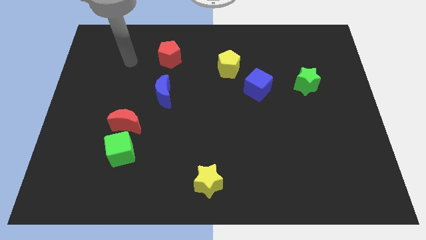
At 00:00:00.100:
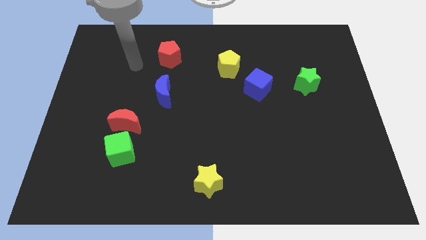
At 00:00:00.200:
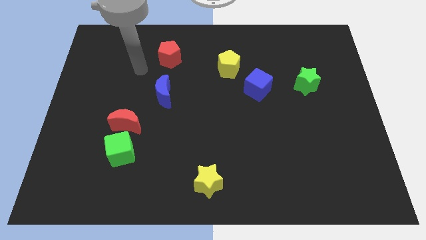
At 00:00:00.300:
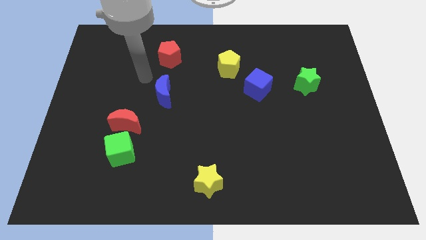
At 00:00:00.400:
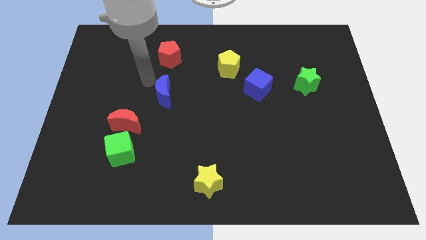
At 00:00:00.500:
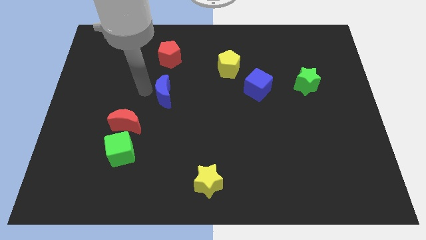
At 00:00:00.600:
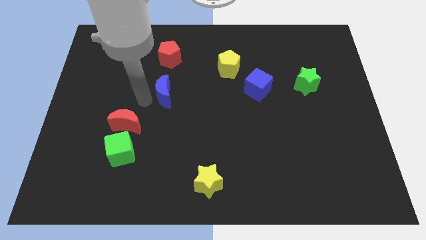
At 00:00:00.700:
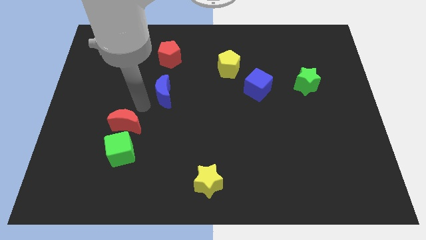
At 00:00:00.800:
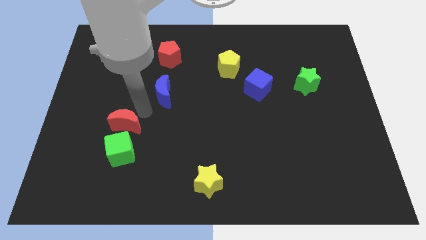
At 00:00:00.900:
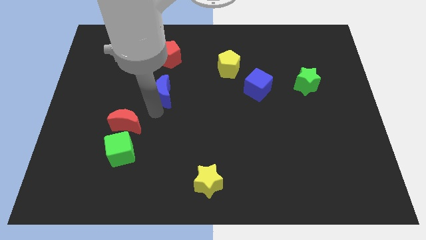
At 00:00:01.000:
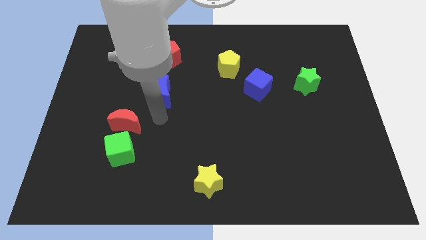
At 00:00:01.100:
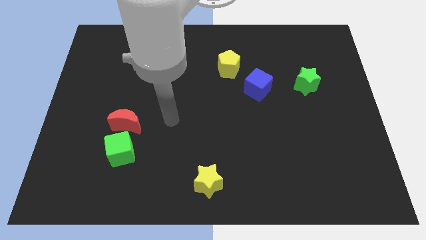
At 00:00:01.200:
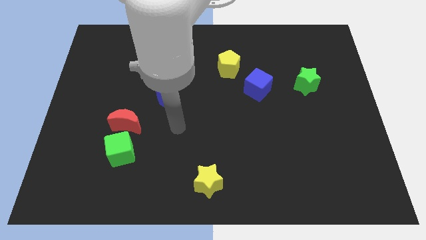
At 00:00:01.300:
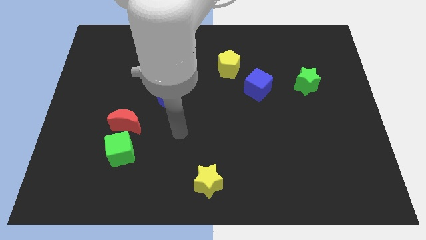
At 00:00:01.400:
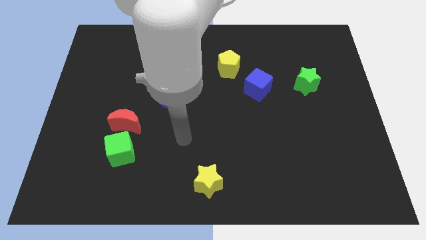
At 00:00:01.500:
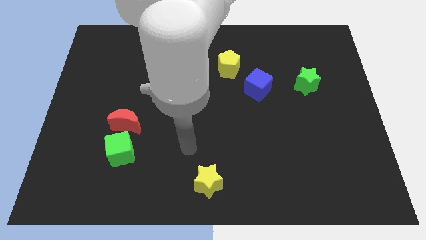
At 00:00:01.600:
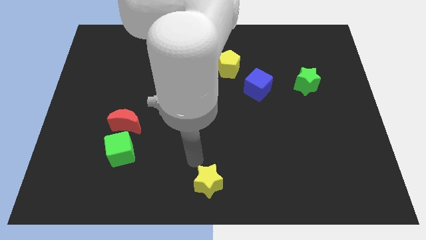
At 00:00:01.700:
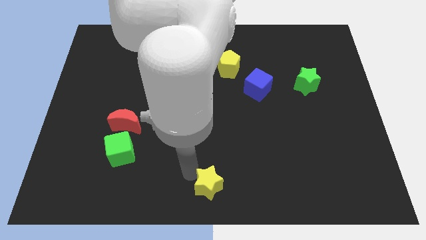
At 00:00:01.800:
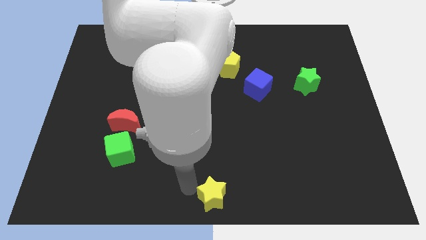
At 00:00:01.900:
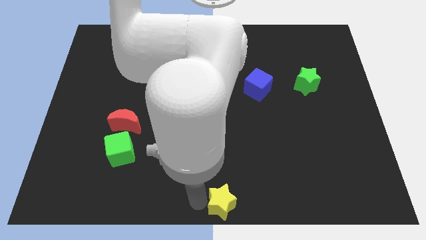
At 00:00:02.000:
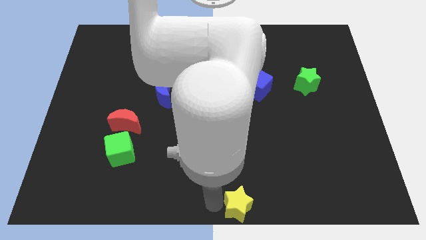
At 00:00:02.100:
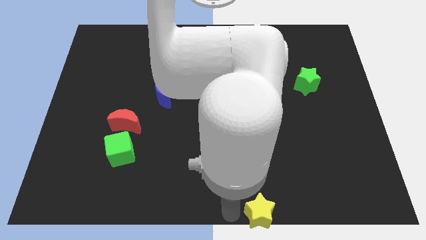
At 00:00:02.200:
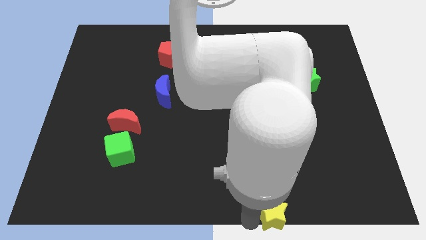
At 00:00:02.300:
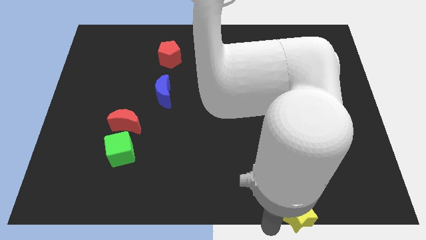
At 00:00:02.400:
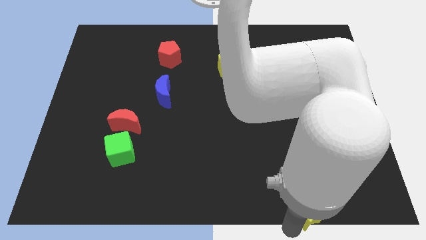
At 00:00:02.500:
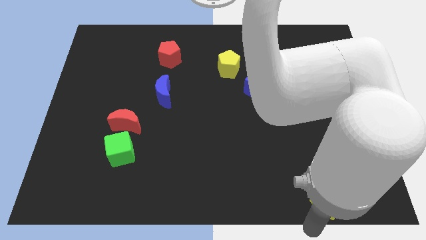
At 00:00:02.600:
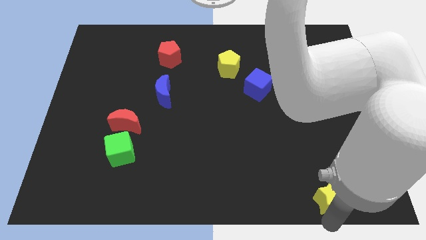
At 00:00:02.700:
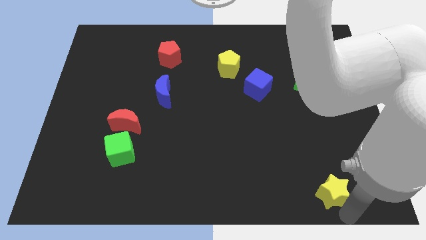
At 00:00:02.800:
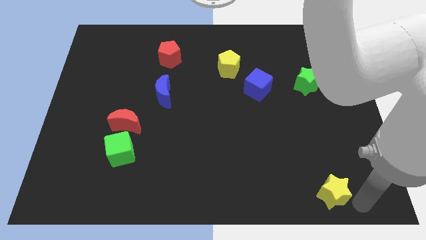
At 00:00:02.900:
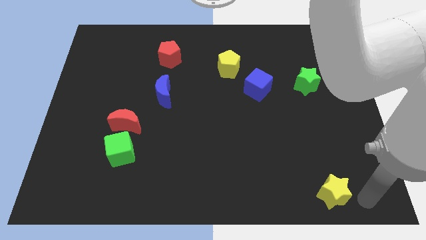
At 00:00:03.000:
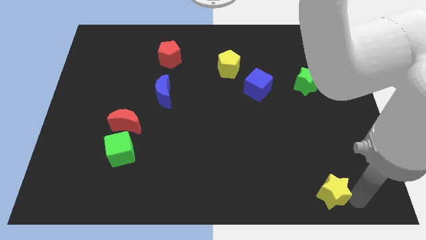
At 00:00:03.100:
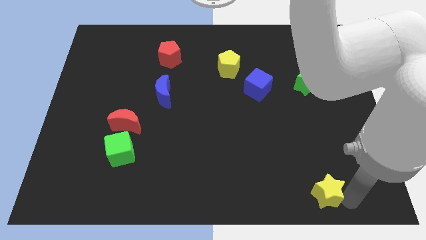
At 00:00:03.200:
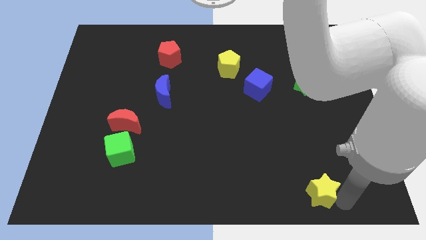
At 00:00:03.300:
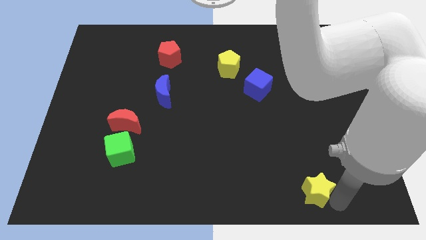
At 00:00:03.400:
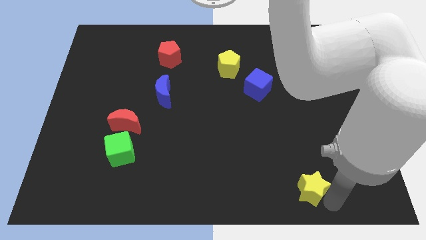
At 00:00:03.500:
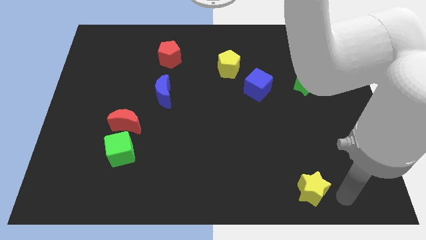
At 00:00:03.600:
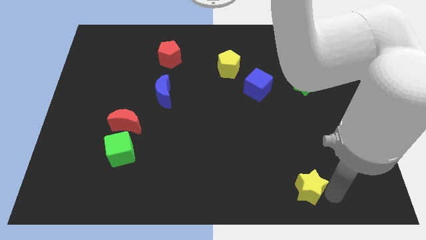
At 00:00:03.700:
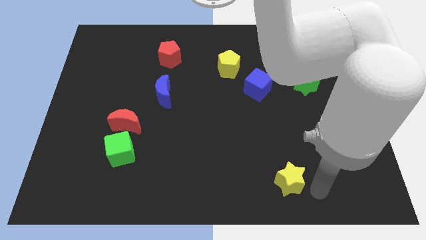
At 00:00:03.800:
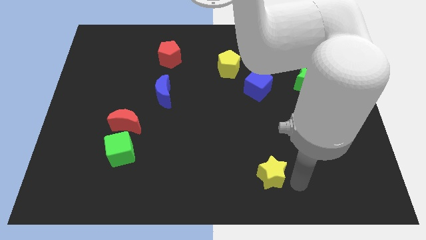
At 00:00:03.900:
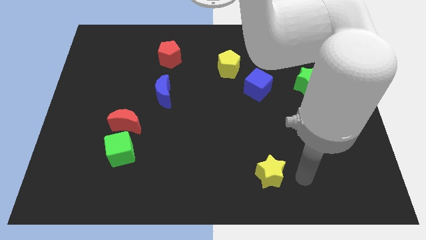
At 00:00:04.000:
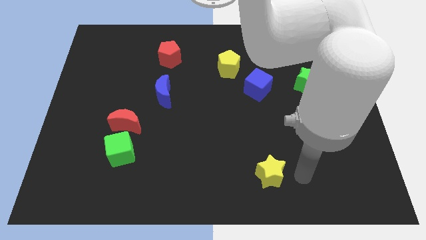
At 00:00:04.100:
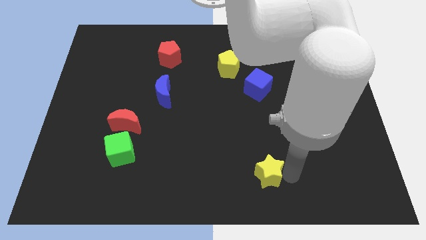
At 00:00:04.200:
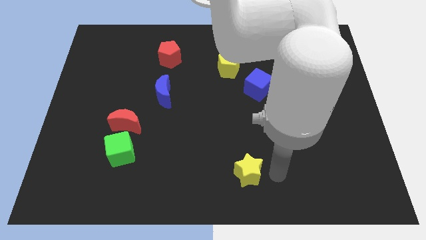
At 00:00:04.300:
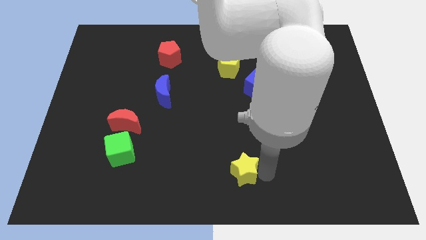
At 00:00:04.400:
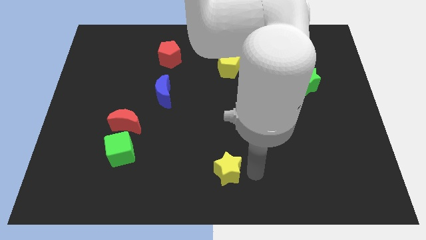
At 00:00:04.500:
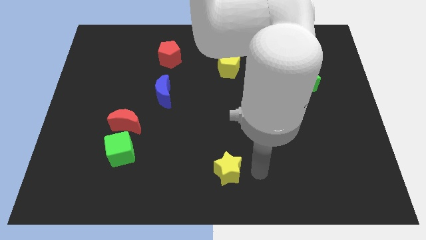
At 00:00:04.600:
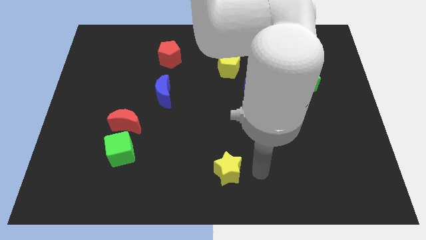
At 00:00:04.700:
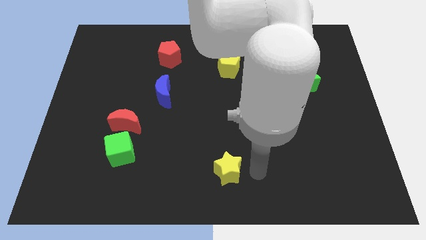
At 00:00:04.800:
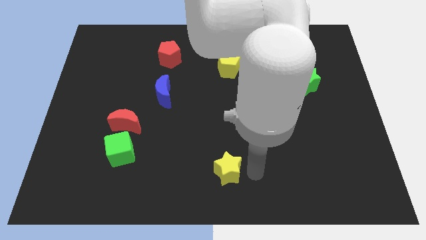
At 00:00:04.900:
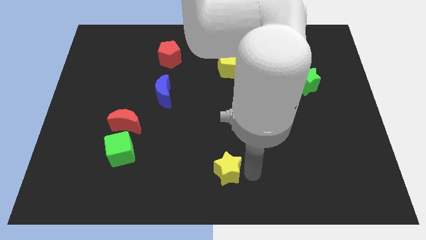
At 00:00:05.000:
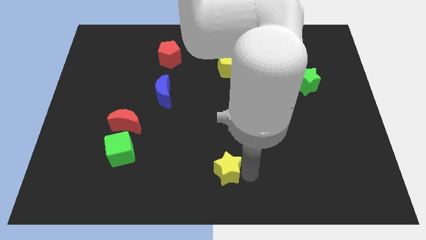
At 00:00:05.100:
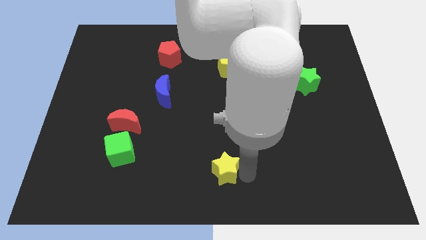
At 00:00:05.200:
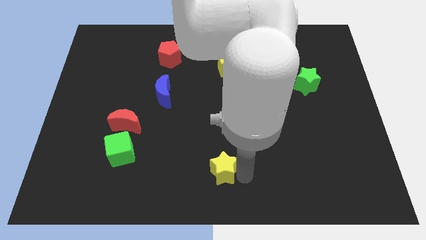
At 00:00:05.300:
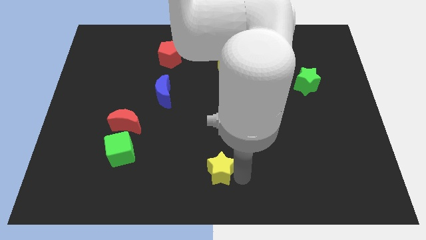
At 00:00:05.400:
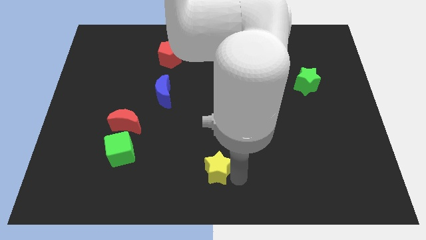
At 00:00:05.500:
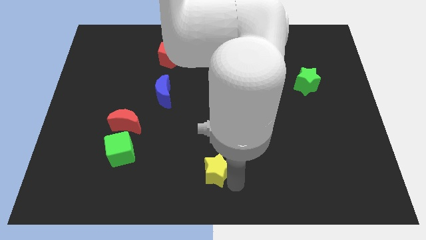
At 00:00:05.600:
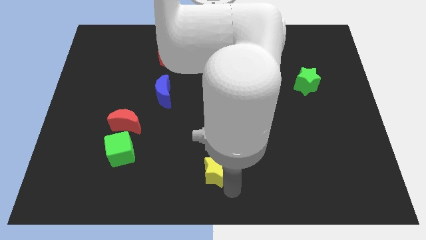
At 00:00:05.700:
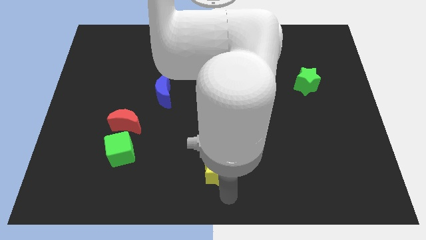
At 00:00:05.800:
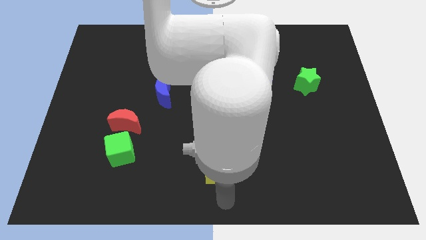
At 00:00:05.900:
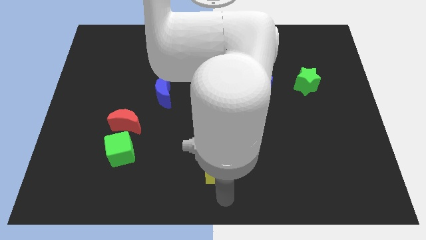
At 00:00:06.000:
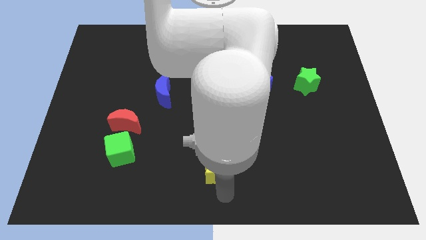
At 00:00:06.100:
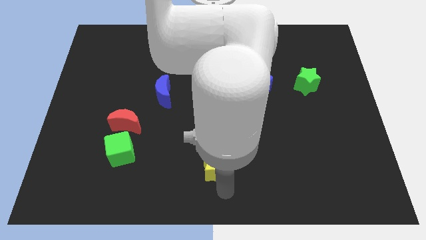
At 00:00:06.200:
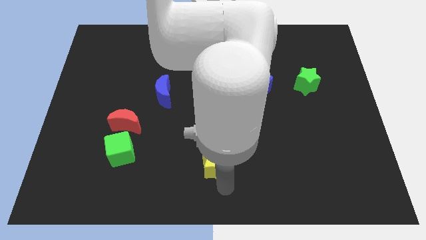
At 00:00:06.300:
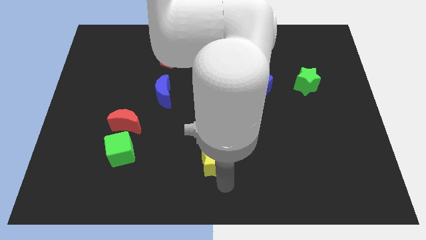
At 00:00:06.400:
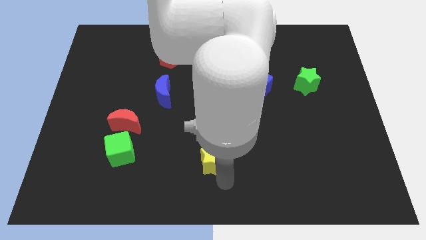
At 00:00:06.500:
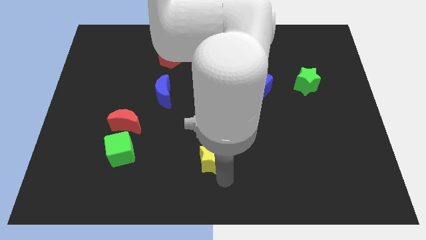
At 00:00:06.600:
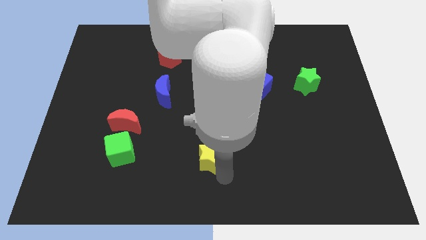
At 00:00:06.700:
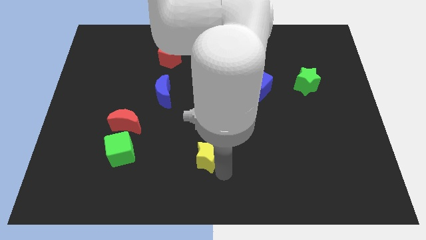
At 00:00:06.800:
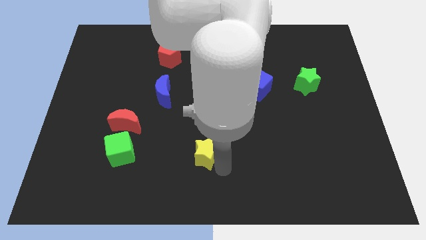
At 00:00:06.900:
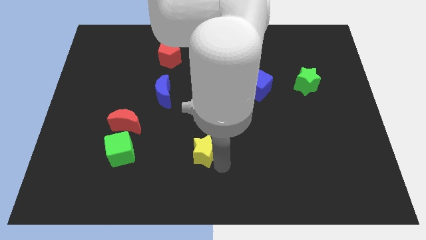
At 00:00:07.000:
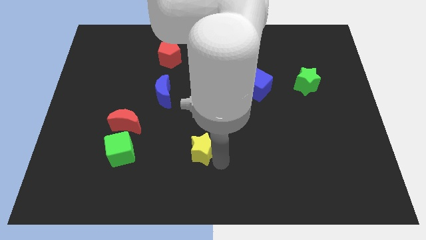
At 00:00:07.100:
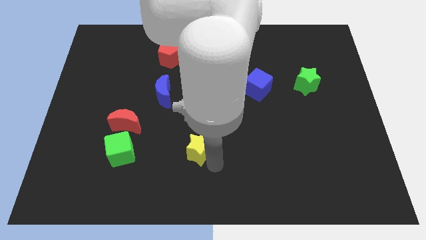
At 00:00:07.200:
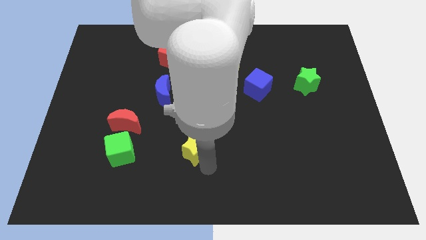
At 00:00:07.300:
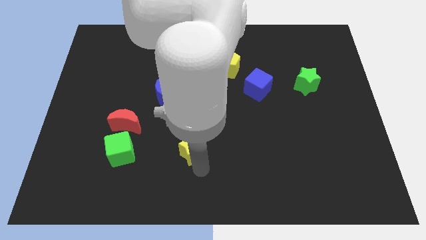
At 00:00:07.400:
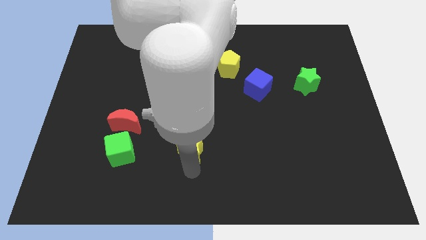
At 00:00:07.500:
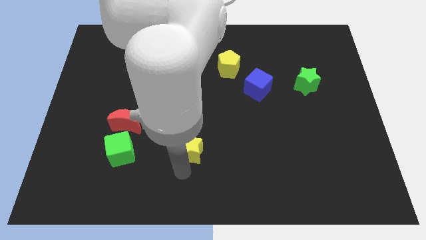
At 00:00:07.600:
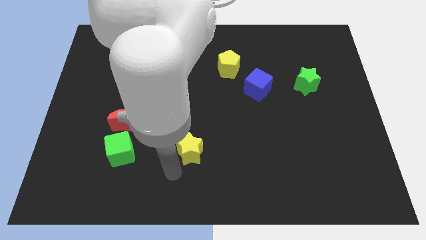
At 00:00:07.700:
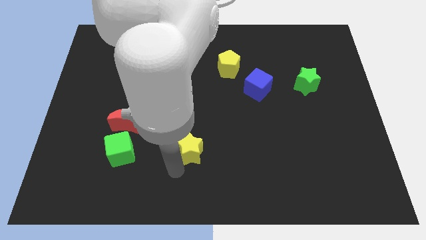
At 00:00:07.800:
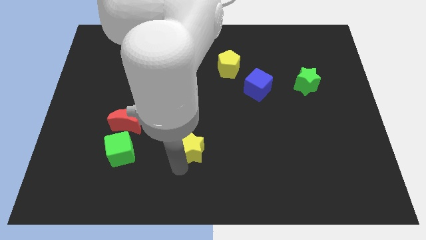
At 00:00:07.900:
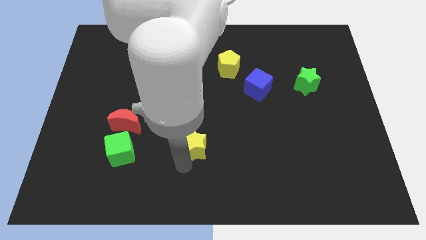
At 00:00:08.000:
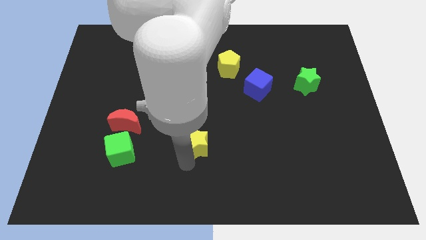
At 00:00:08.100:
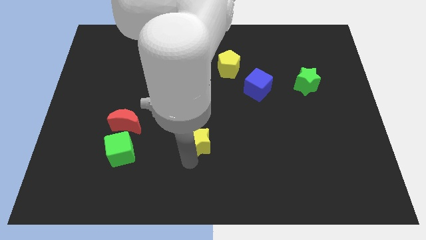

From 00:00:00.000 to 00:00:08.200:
push the yellow star to the center of the board
